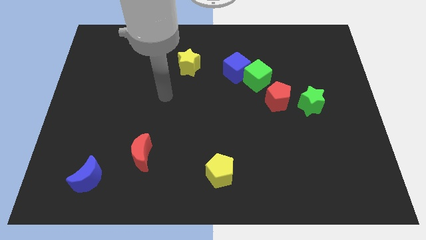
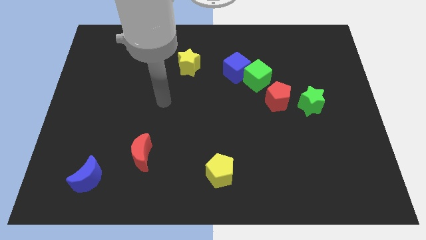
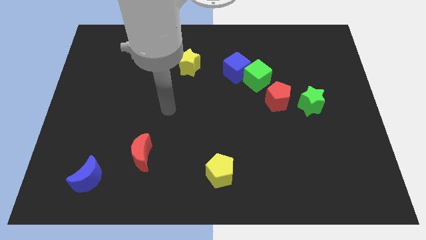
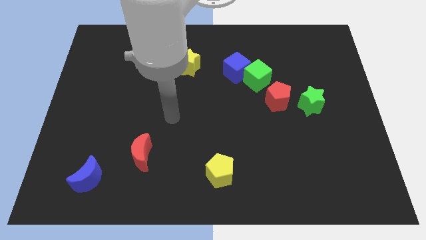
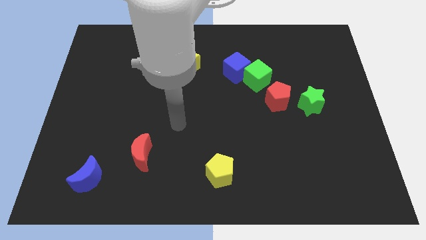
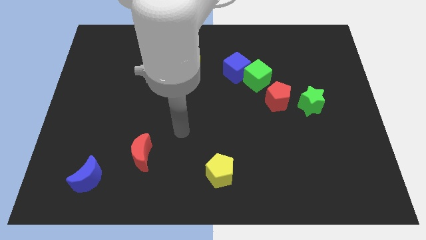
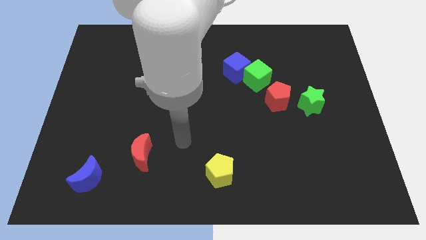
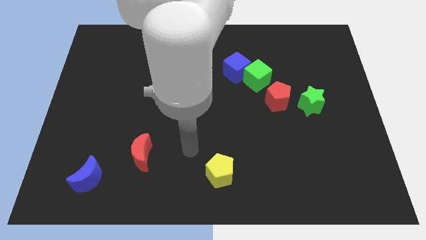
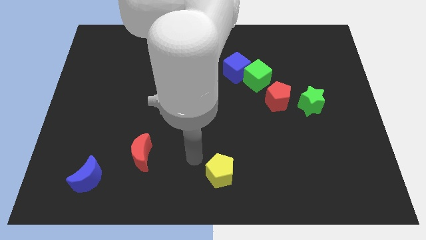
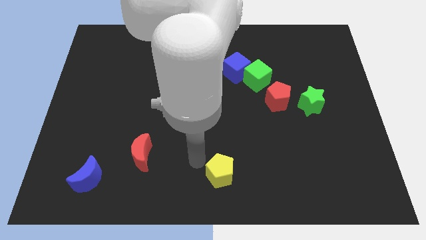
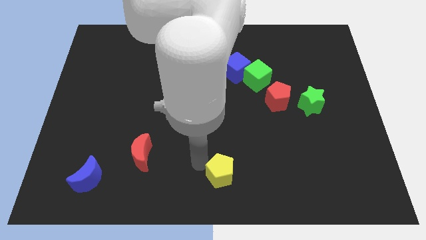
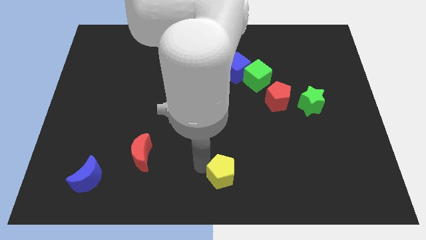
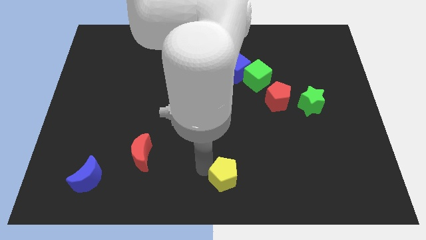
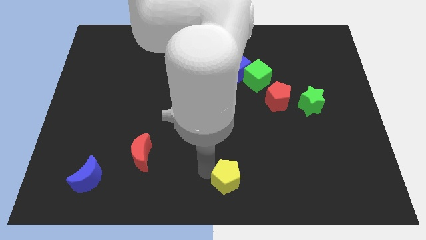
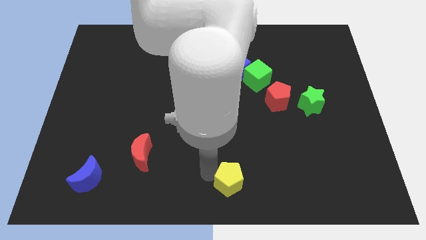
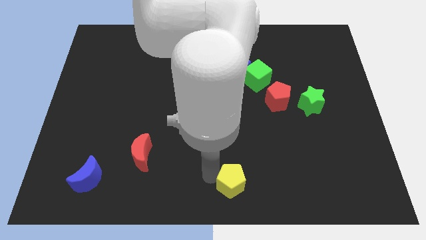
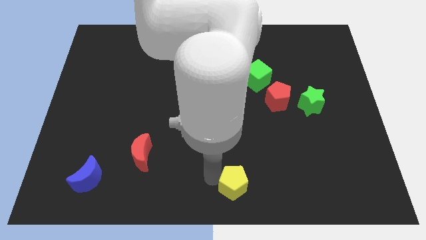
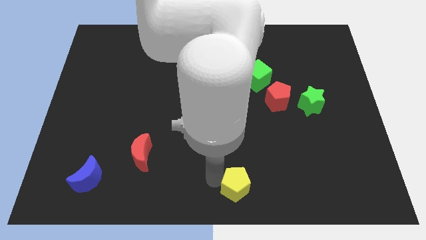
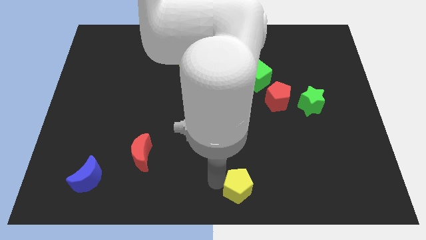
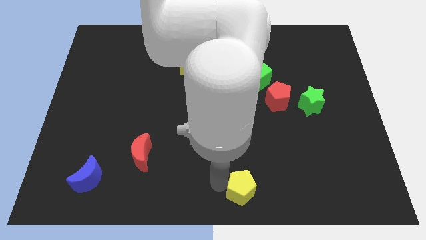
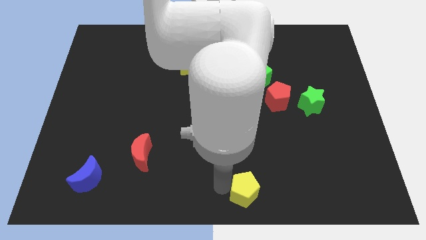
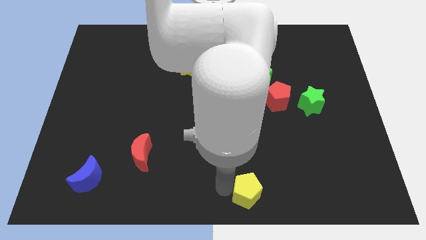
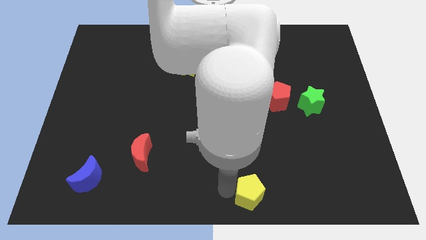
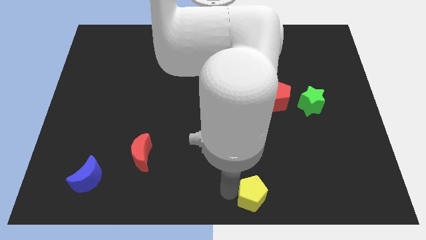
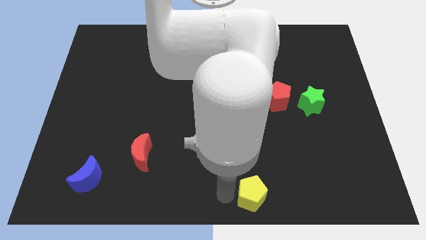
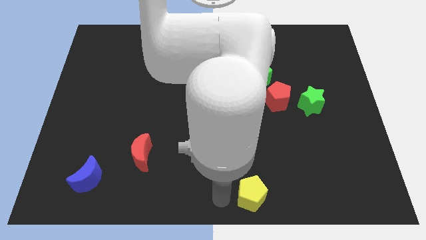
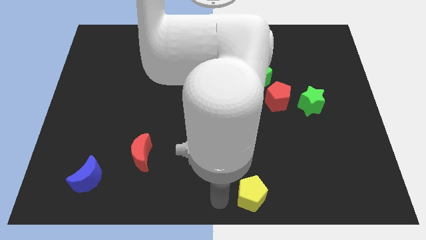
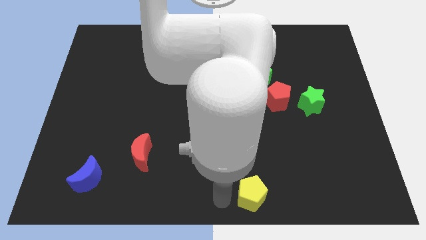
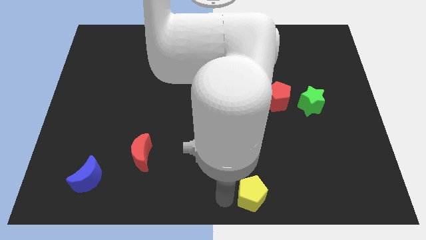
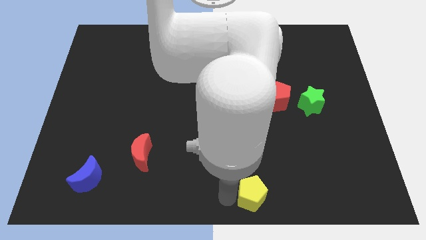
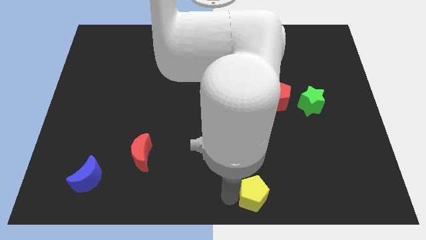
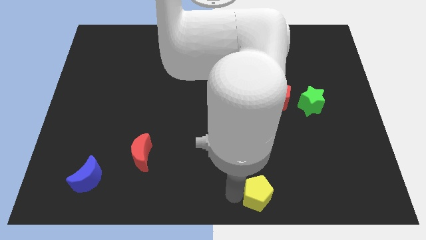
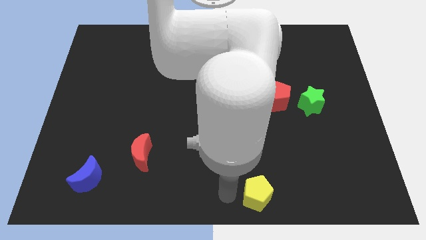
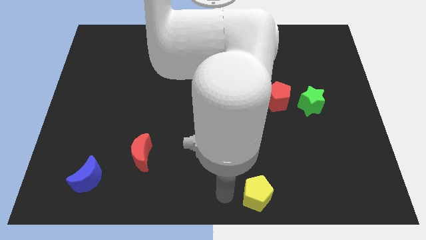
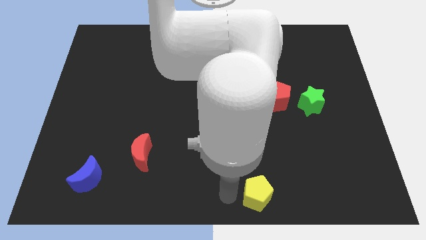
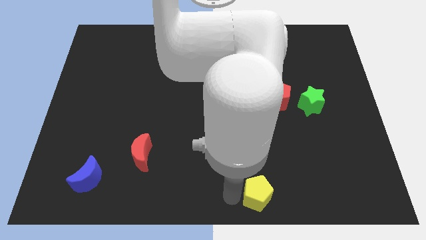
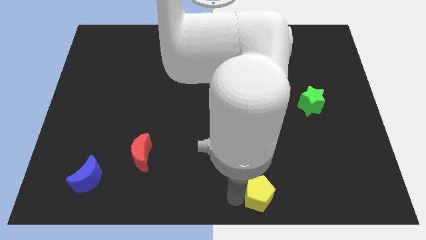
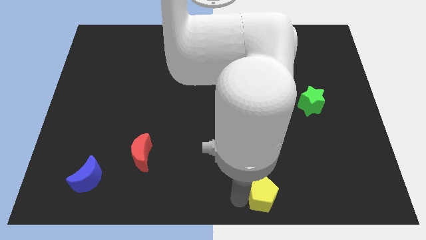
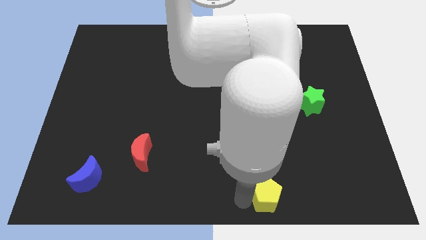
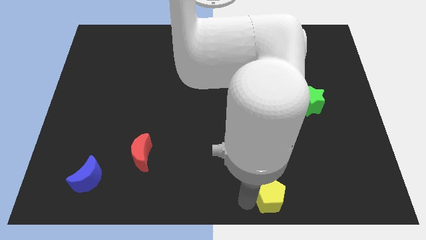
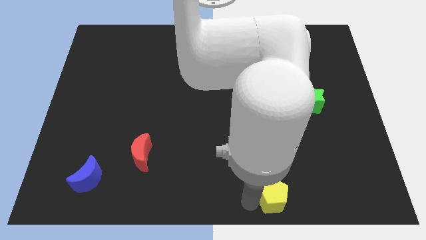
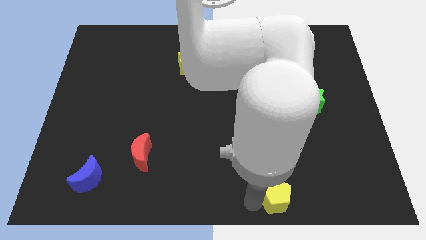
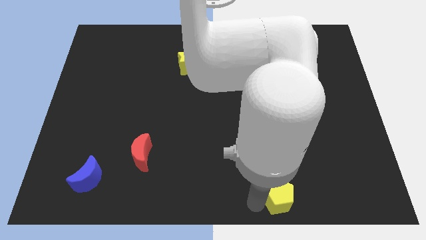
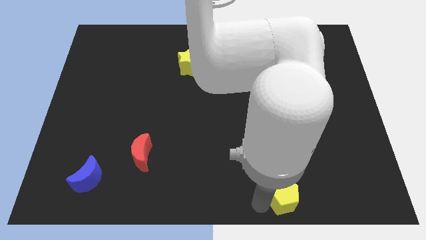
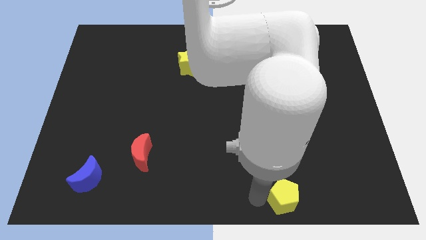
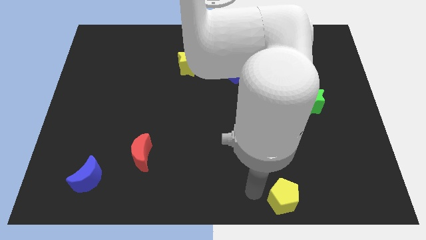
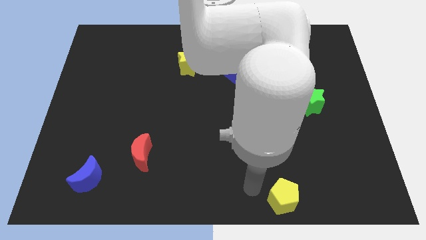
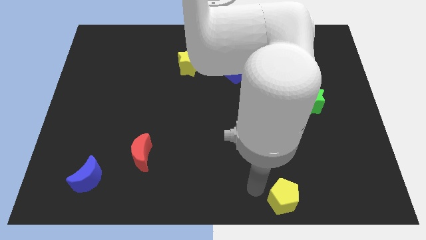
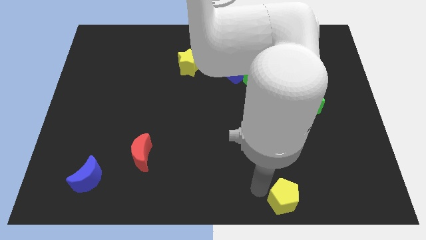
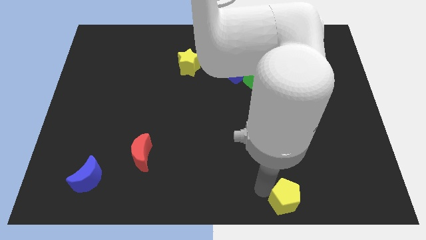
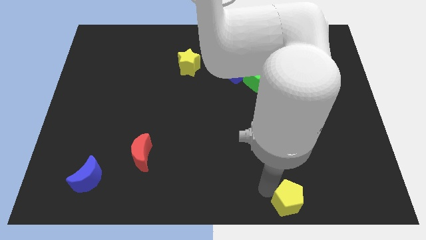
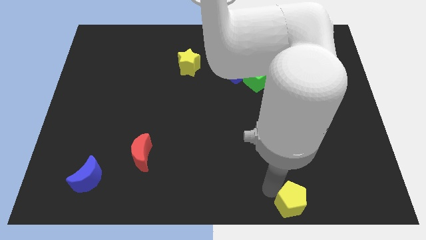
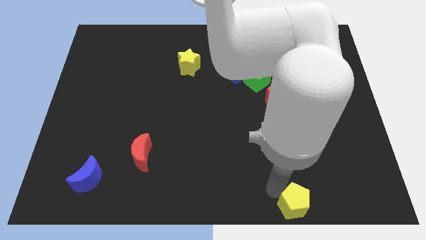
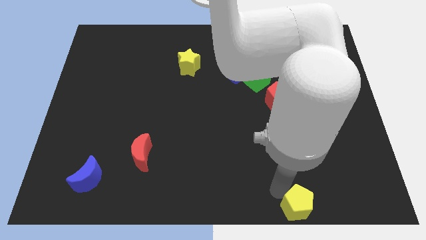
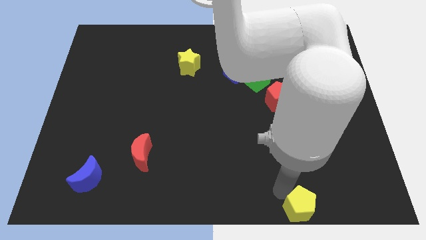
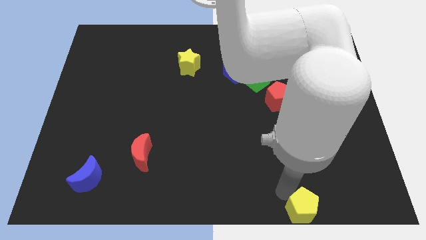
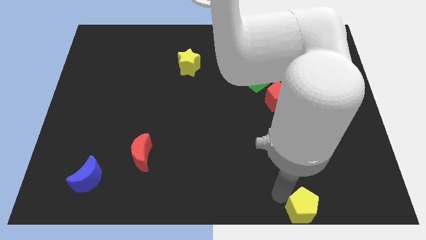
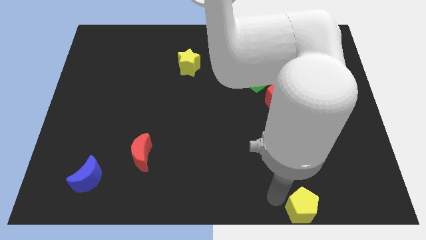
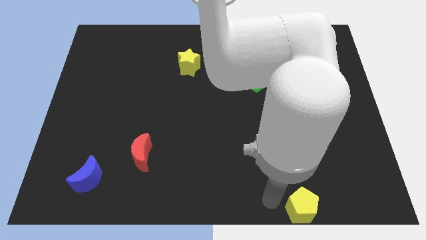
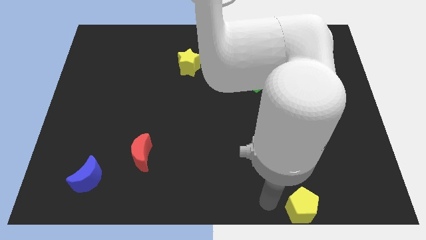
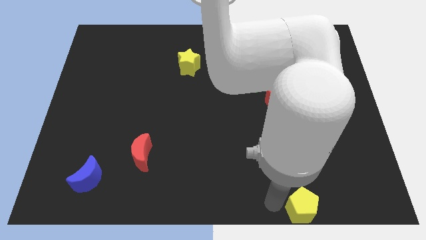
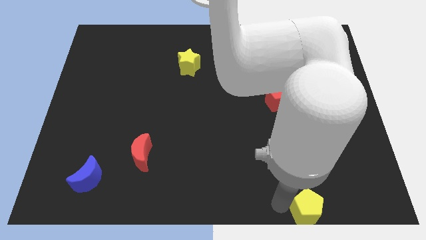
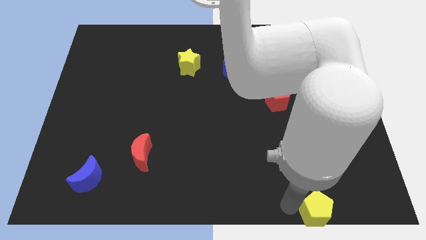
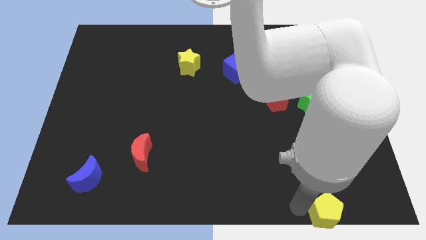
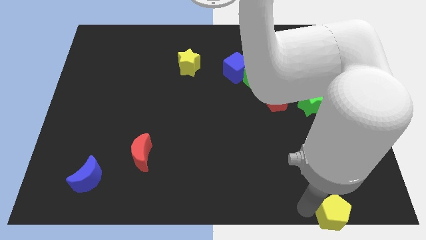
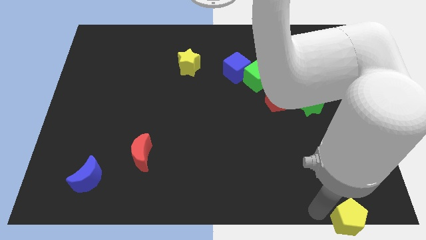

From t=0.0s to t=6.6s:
move the yellow pentagon to the bottom right

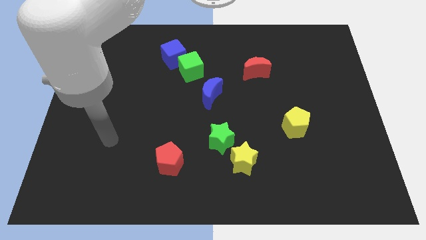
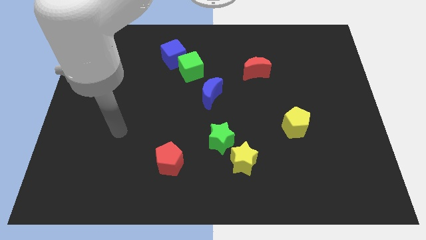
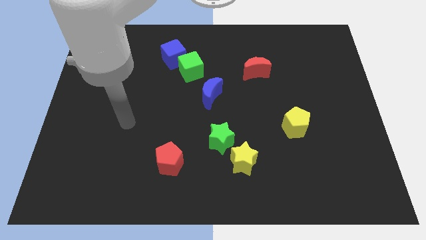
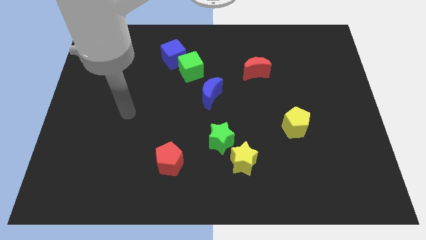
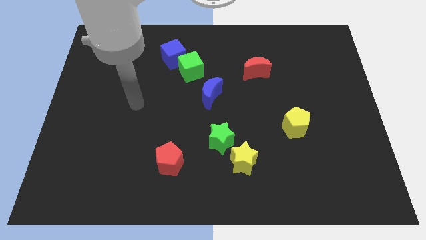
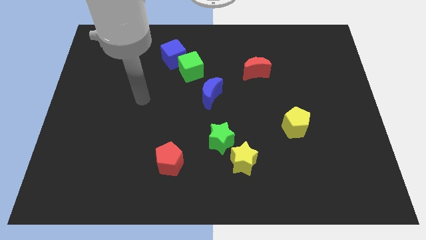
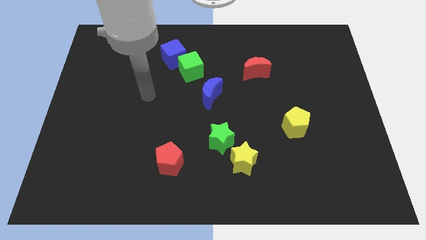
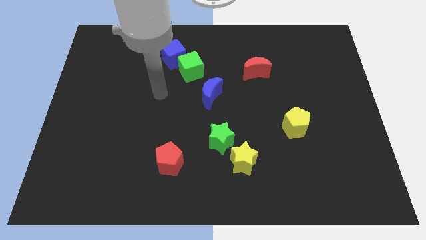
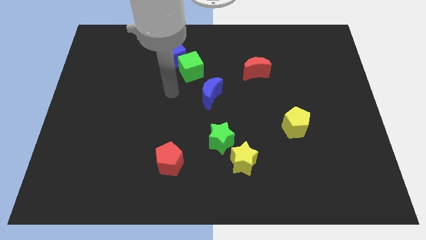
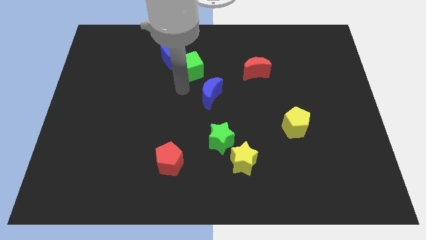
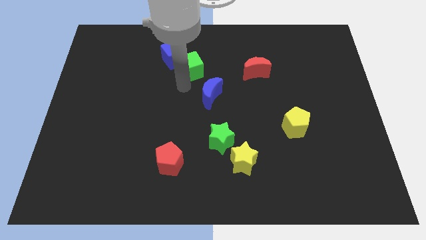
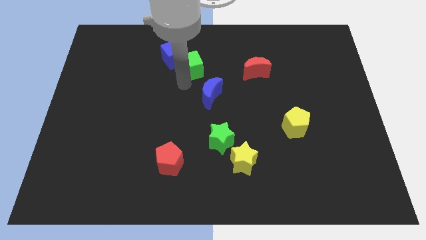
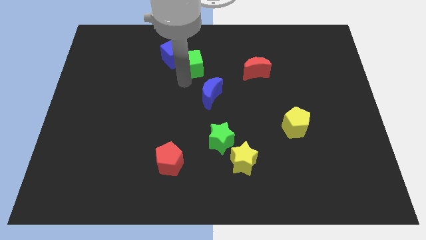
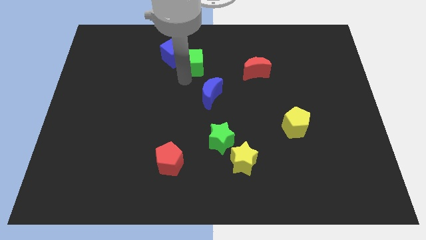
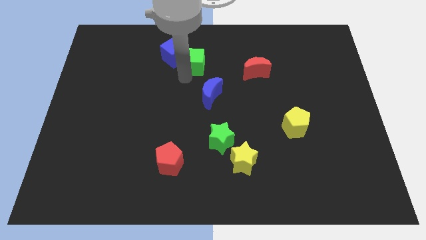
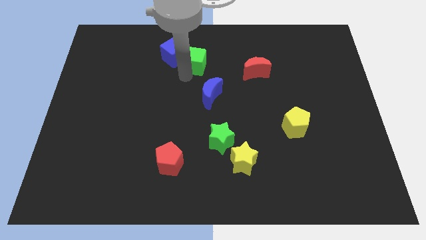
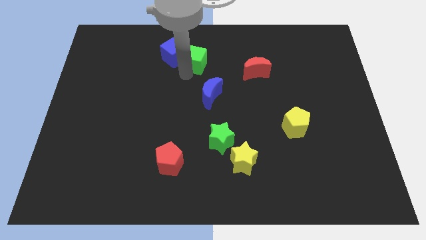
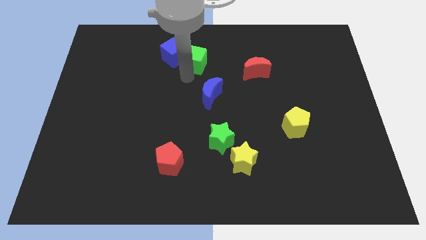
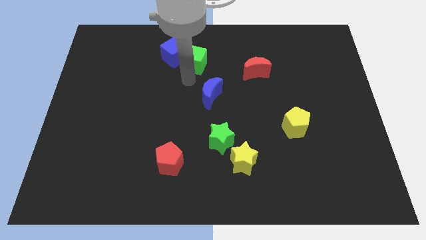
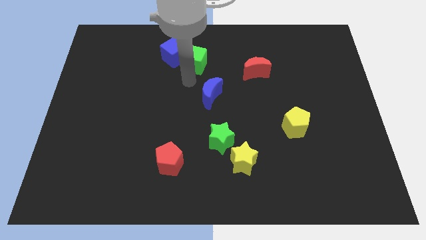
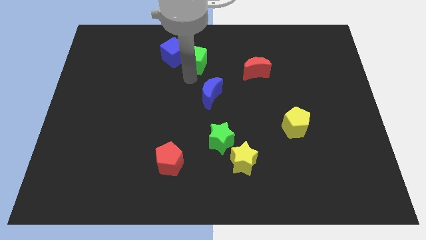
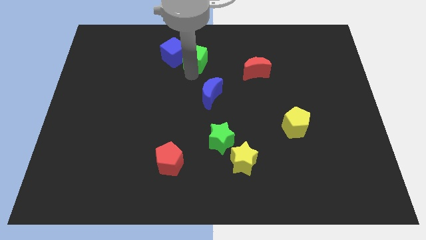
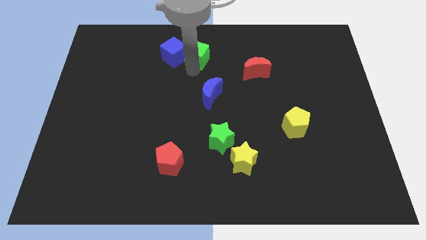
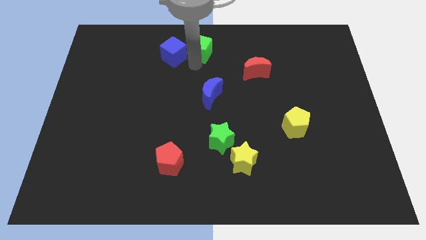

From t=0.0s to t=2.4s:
slide the green cube to the top side
